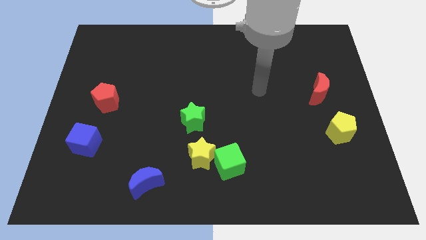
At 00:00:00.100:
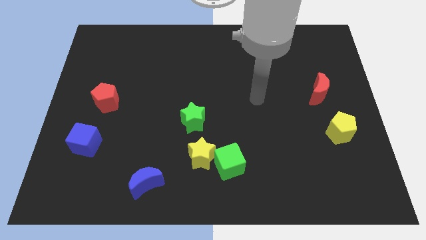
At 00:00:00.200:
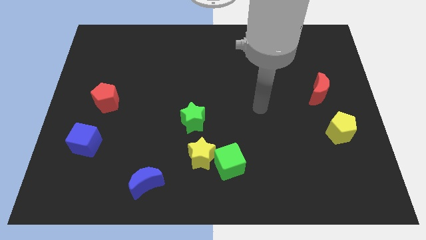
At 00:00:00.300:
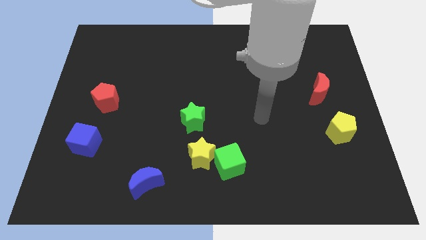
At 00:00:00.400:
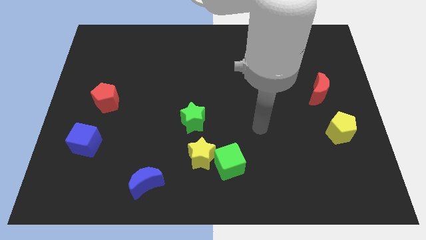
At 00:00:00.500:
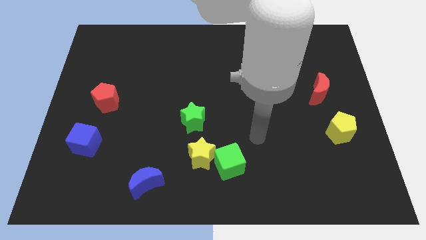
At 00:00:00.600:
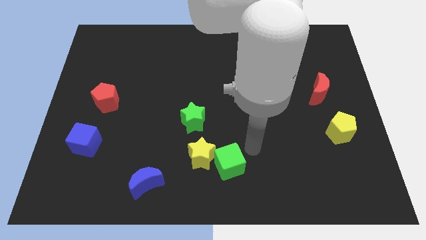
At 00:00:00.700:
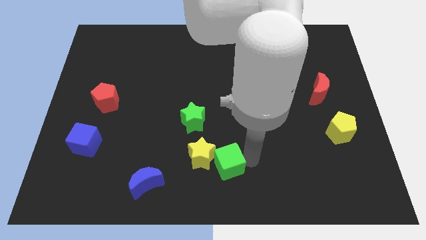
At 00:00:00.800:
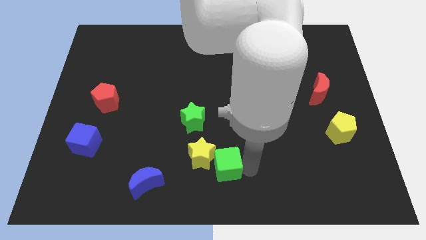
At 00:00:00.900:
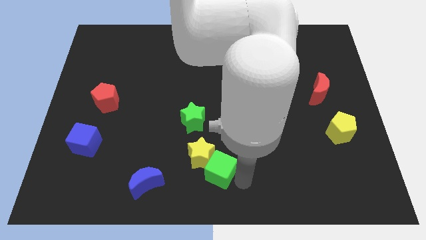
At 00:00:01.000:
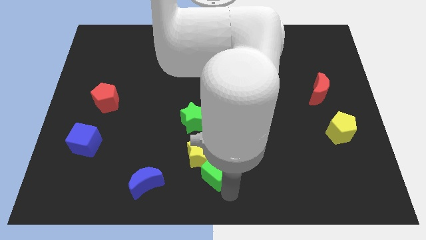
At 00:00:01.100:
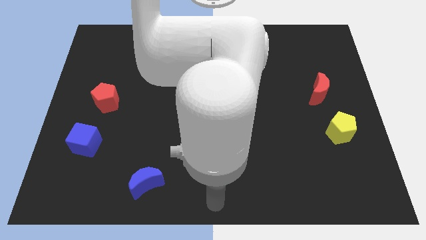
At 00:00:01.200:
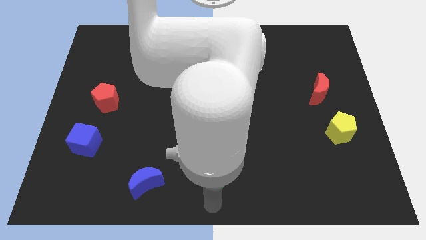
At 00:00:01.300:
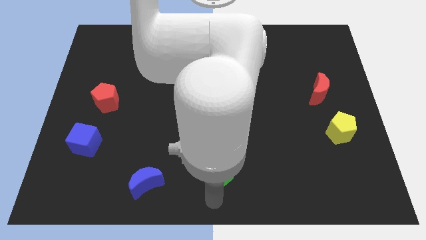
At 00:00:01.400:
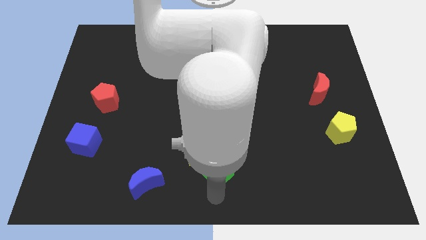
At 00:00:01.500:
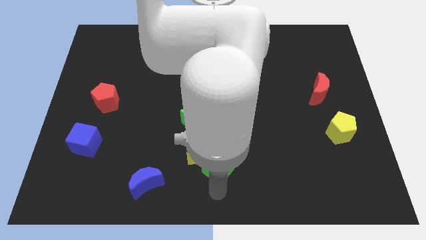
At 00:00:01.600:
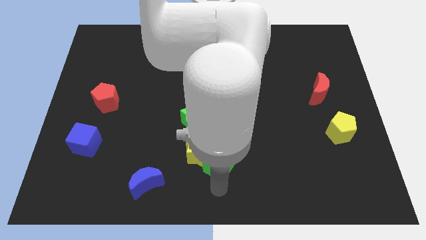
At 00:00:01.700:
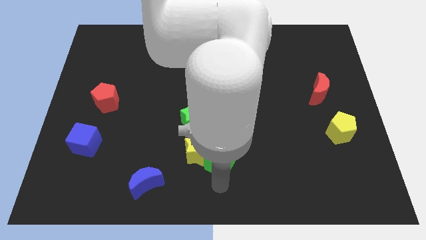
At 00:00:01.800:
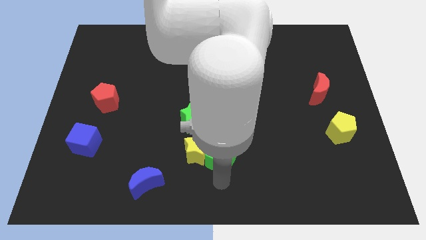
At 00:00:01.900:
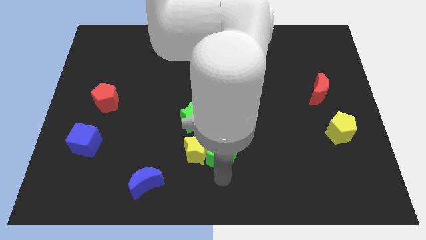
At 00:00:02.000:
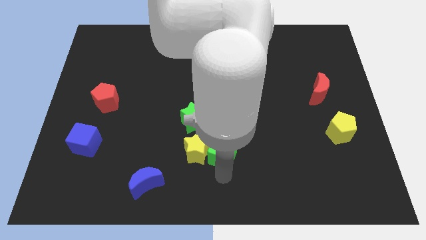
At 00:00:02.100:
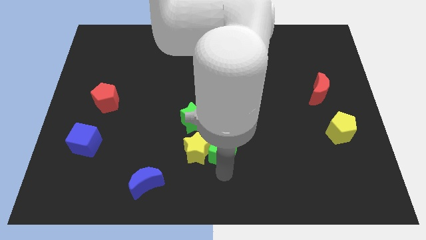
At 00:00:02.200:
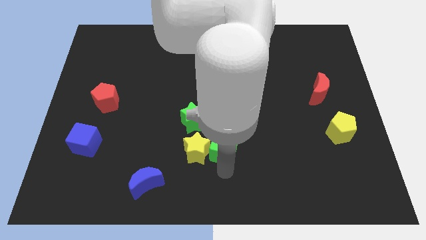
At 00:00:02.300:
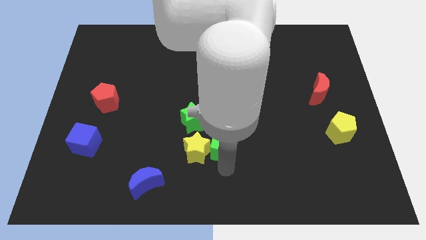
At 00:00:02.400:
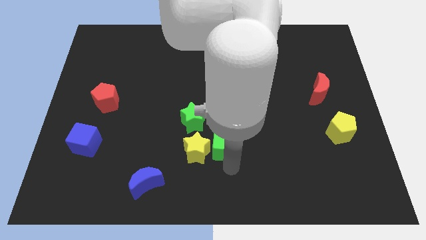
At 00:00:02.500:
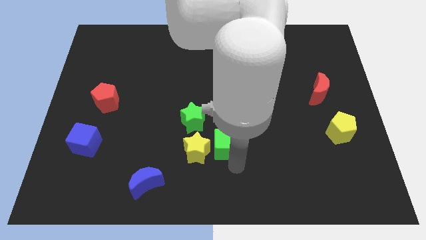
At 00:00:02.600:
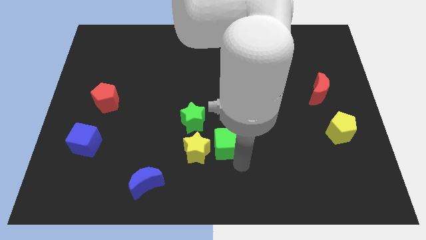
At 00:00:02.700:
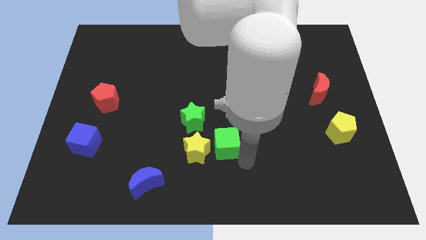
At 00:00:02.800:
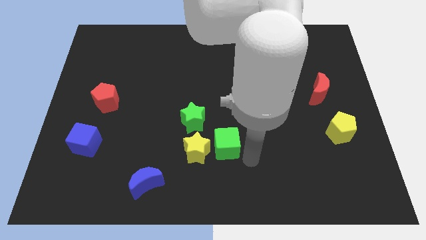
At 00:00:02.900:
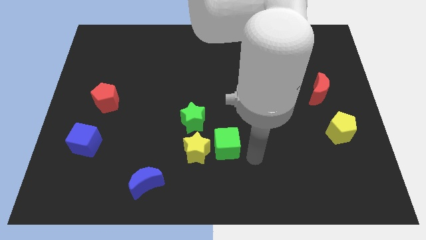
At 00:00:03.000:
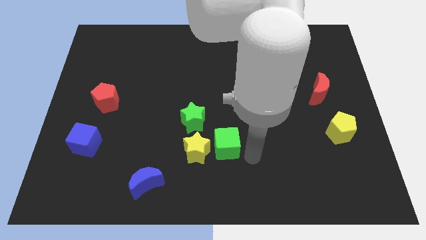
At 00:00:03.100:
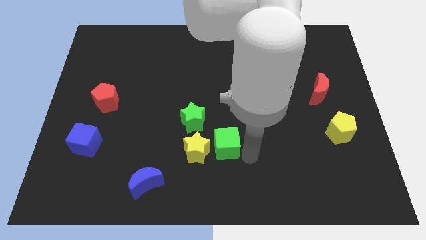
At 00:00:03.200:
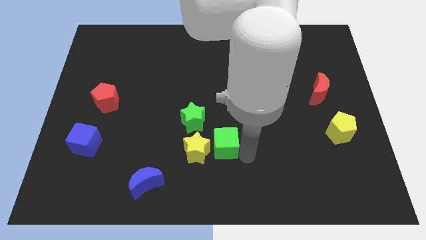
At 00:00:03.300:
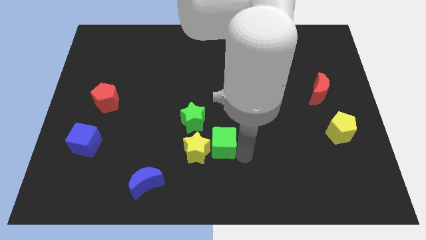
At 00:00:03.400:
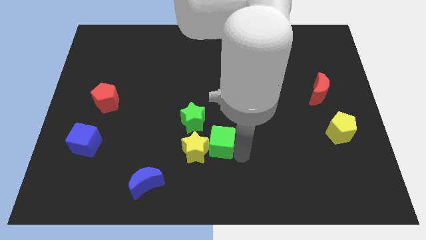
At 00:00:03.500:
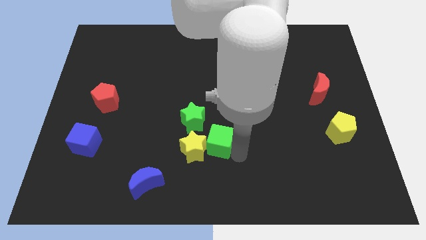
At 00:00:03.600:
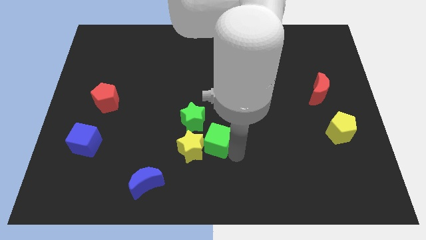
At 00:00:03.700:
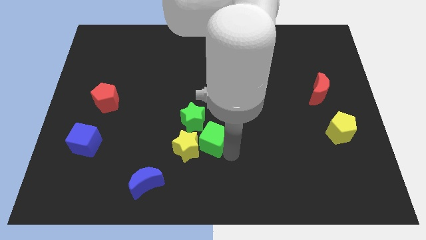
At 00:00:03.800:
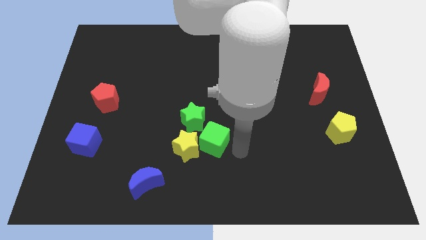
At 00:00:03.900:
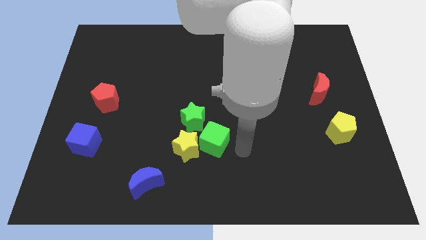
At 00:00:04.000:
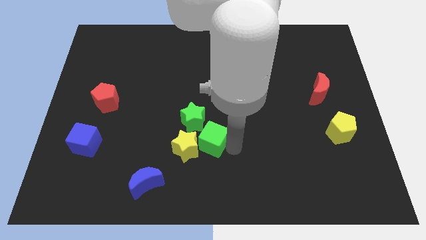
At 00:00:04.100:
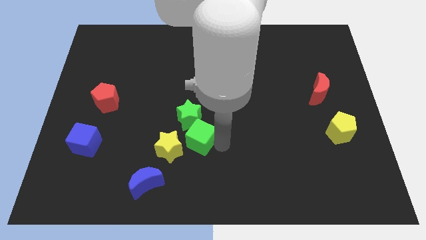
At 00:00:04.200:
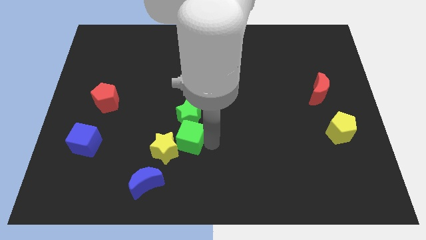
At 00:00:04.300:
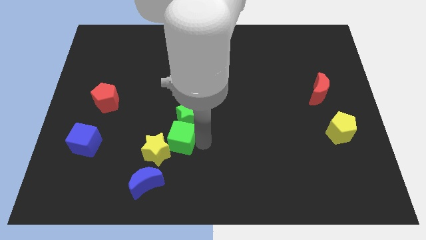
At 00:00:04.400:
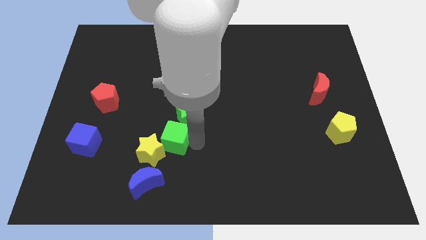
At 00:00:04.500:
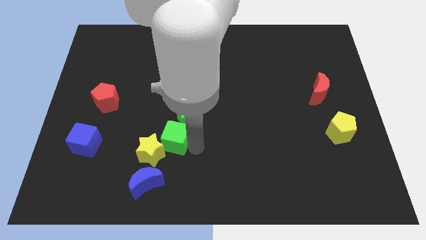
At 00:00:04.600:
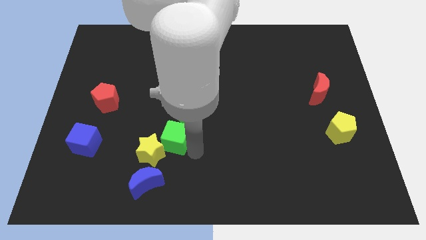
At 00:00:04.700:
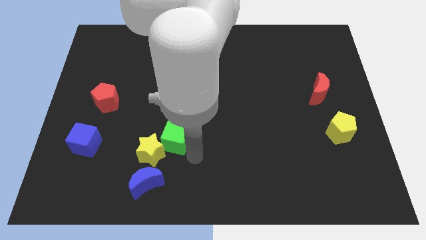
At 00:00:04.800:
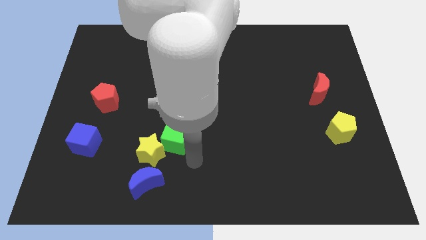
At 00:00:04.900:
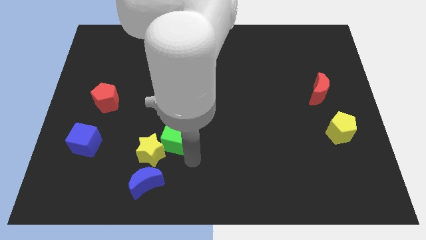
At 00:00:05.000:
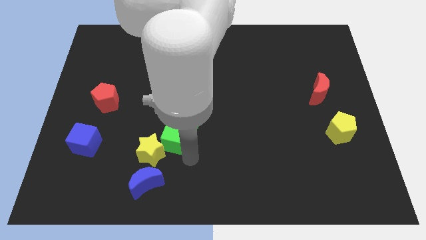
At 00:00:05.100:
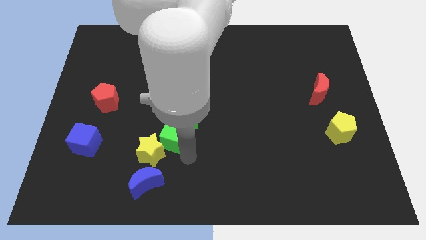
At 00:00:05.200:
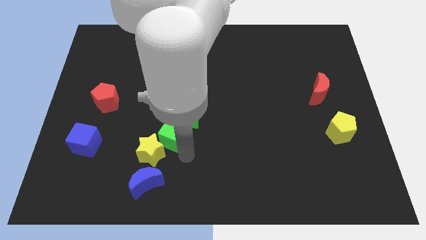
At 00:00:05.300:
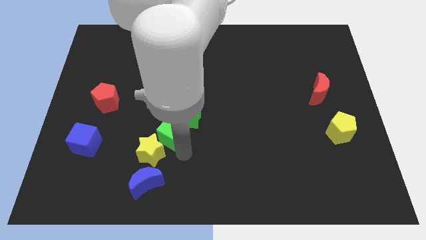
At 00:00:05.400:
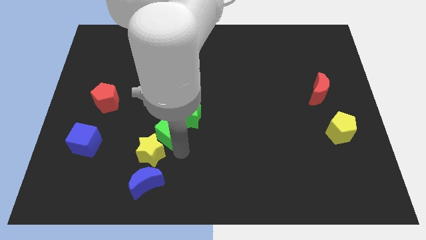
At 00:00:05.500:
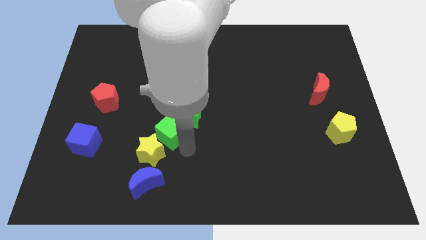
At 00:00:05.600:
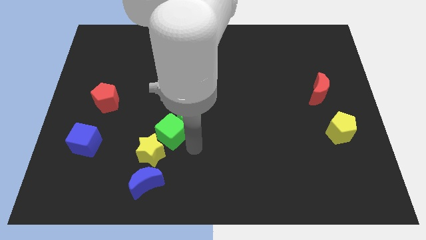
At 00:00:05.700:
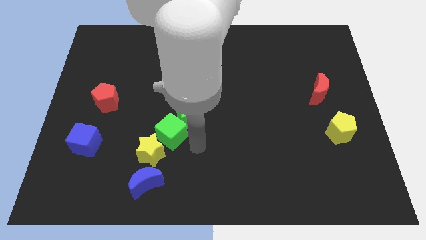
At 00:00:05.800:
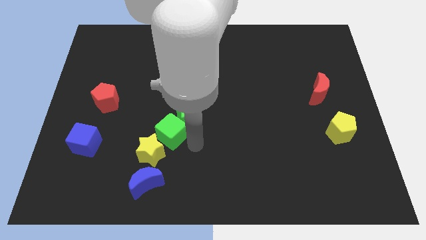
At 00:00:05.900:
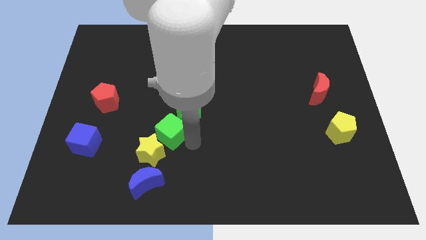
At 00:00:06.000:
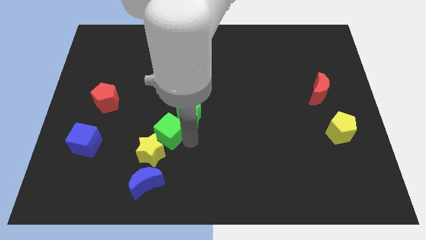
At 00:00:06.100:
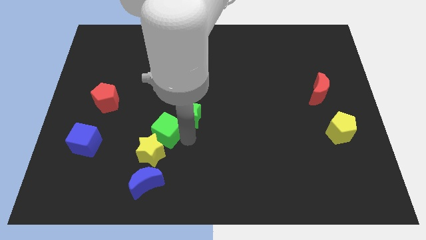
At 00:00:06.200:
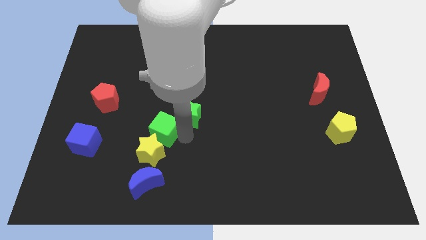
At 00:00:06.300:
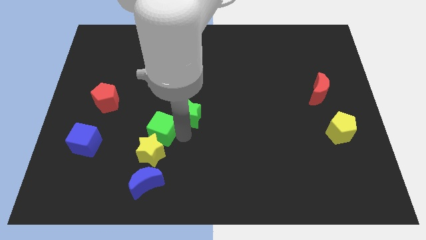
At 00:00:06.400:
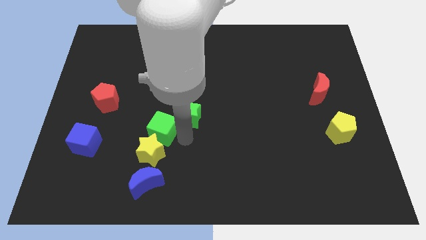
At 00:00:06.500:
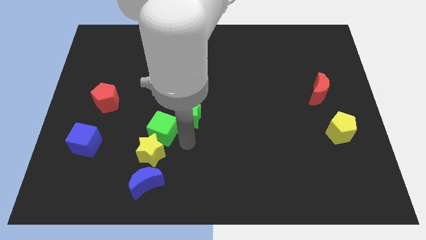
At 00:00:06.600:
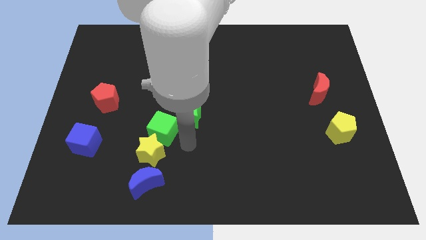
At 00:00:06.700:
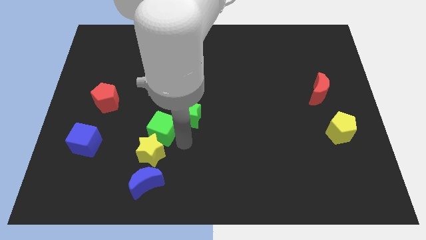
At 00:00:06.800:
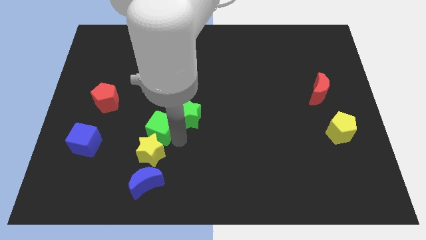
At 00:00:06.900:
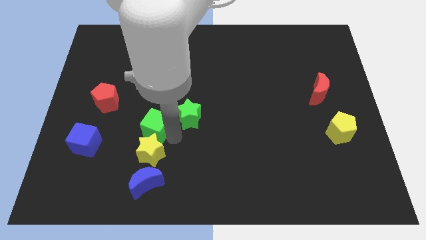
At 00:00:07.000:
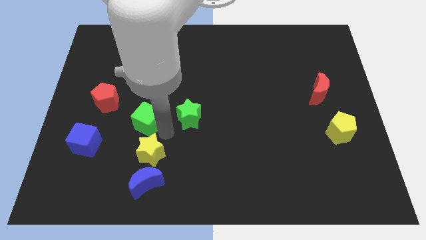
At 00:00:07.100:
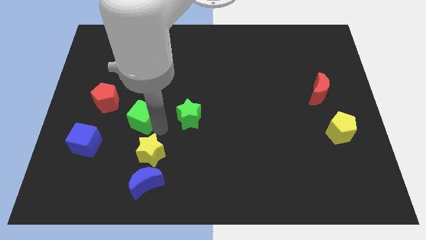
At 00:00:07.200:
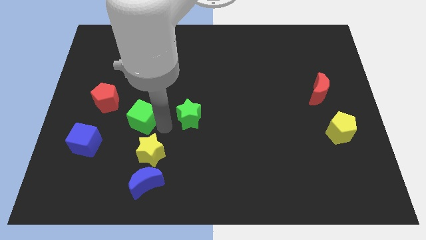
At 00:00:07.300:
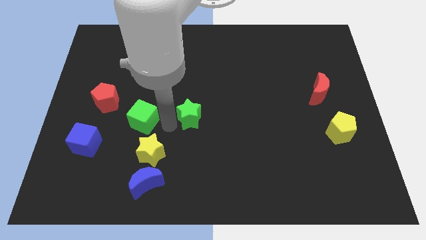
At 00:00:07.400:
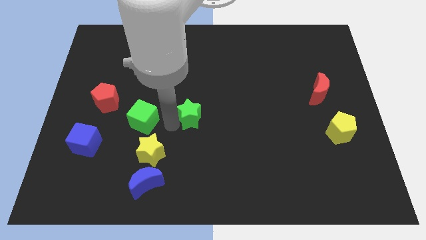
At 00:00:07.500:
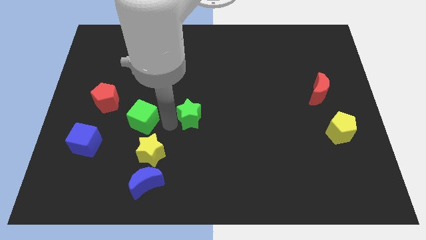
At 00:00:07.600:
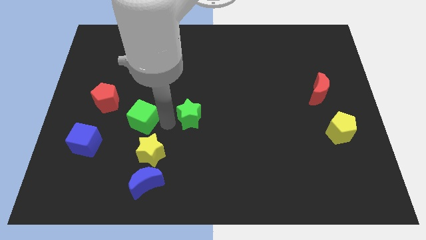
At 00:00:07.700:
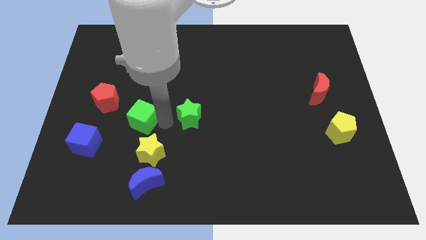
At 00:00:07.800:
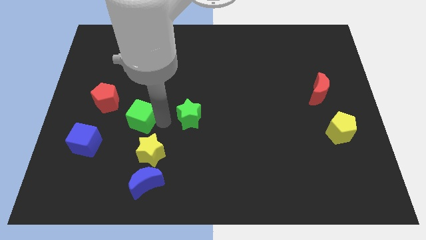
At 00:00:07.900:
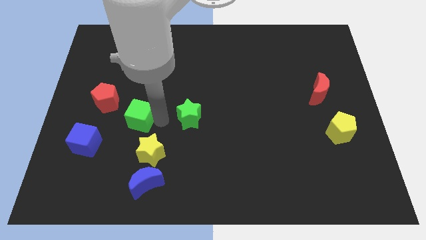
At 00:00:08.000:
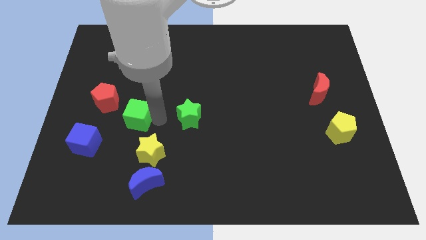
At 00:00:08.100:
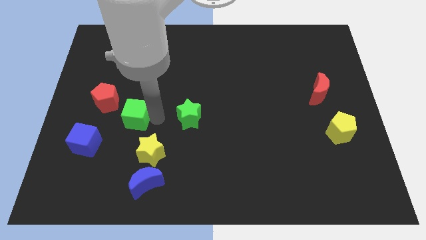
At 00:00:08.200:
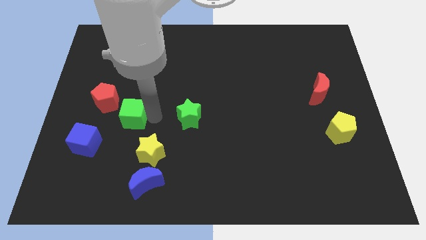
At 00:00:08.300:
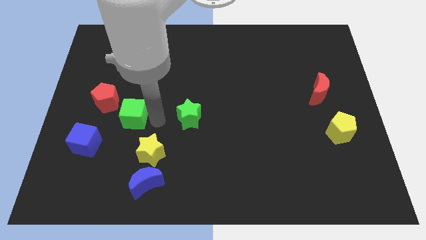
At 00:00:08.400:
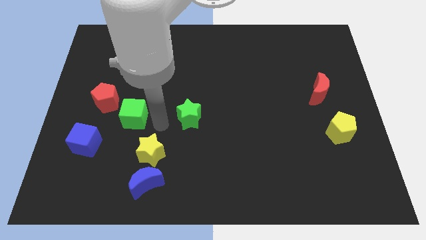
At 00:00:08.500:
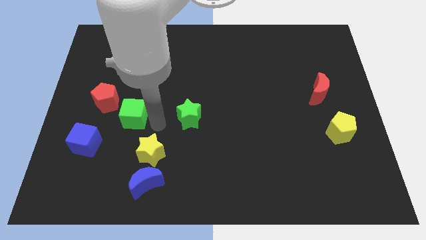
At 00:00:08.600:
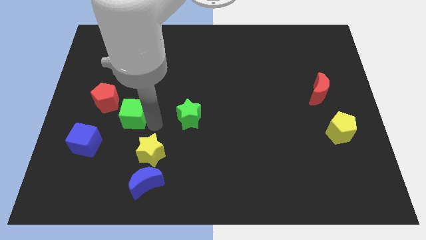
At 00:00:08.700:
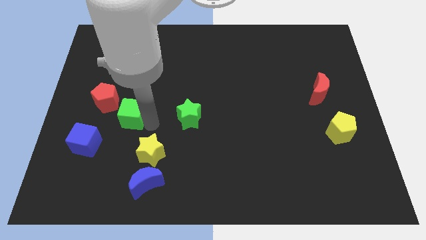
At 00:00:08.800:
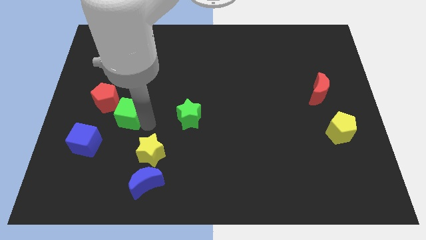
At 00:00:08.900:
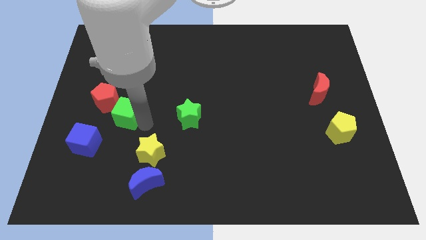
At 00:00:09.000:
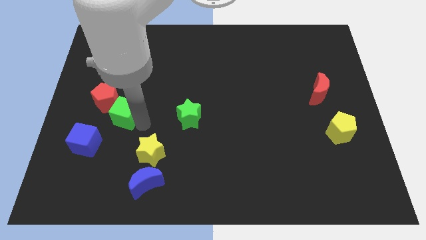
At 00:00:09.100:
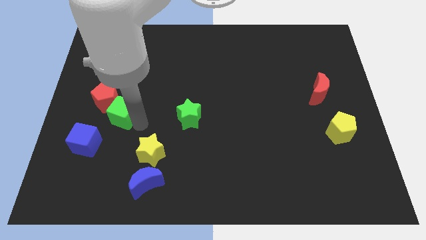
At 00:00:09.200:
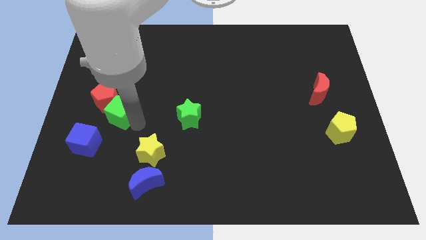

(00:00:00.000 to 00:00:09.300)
push the green cube close to the red pentagon
